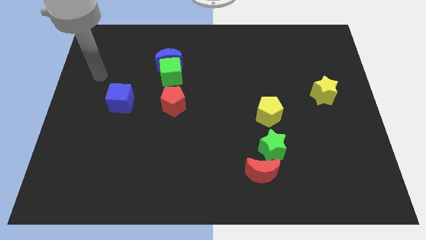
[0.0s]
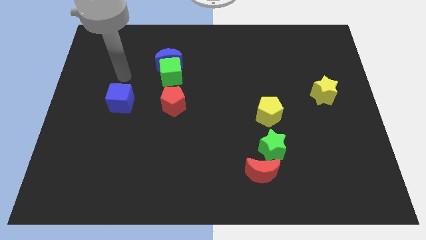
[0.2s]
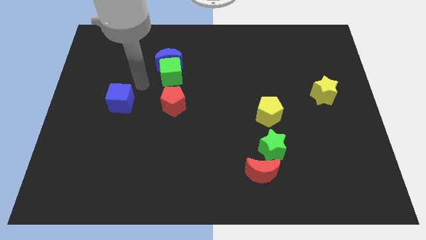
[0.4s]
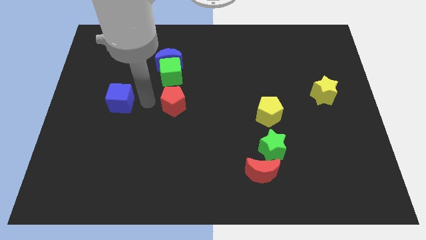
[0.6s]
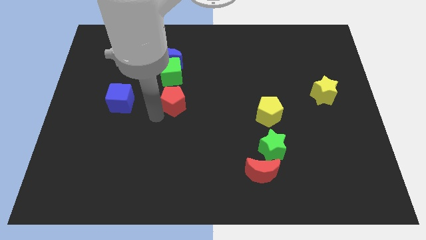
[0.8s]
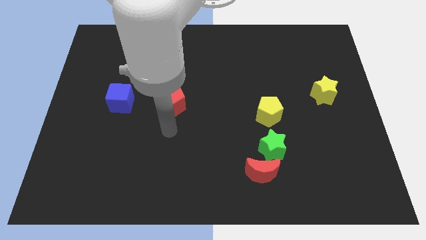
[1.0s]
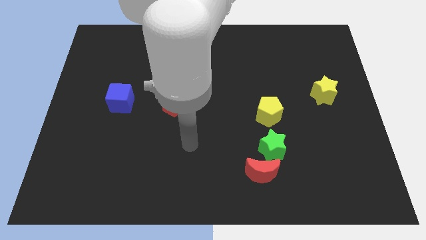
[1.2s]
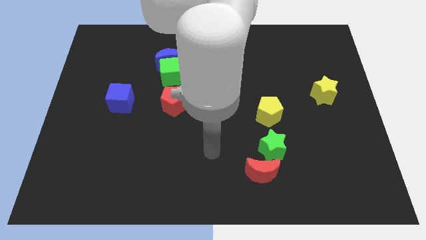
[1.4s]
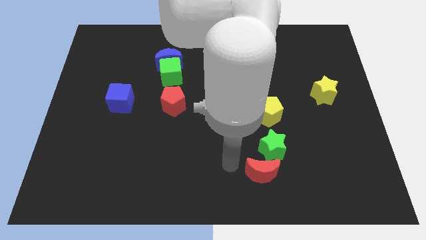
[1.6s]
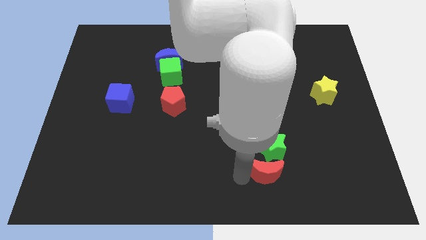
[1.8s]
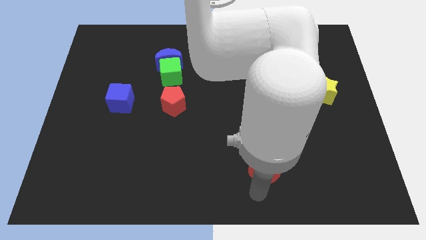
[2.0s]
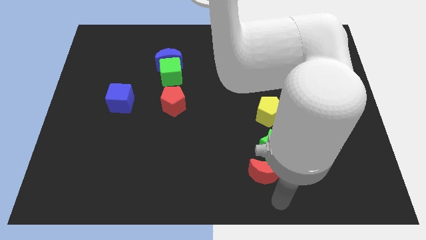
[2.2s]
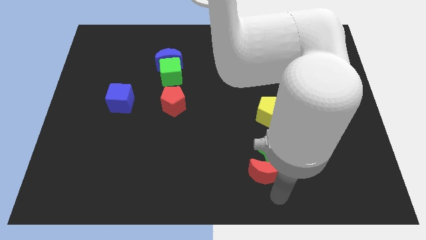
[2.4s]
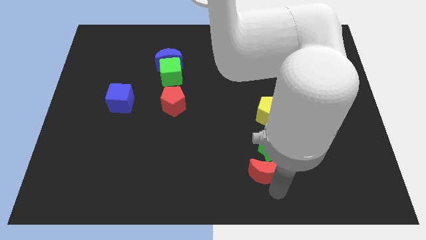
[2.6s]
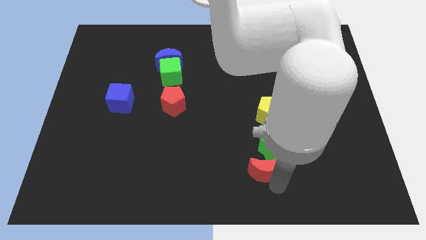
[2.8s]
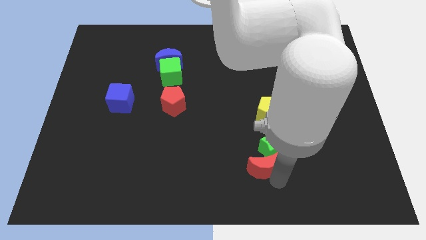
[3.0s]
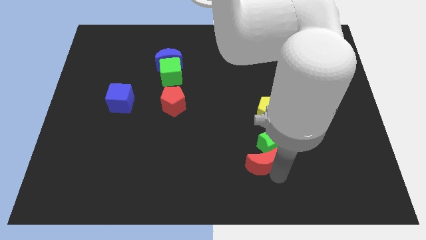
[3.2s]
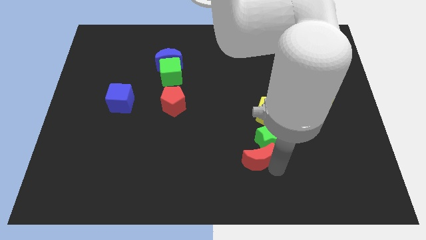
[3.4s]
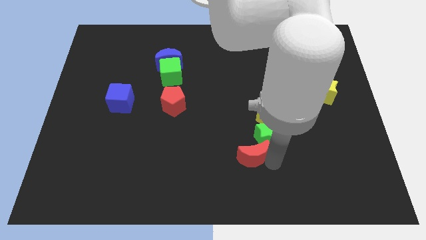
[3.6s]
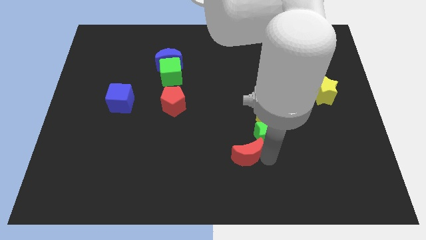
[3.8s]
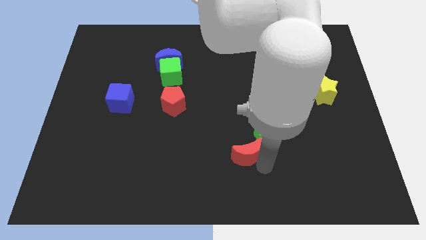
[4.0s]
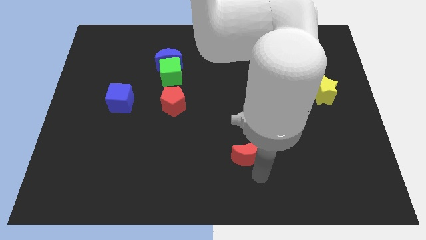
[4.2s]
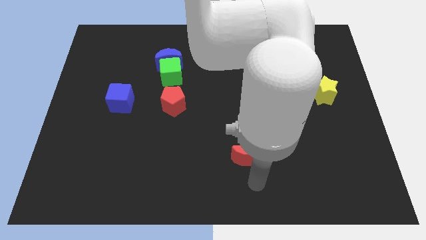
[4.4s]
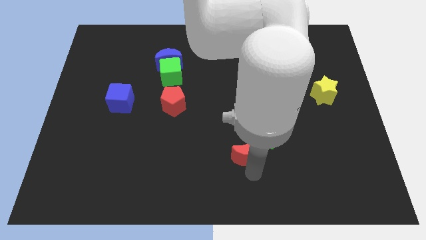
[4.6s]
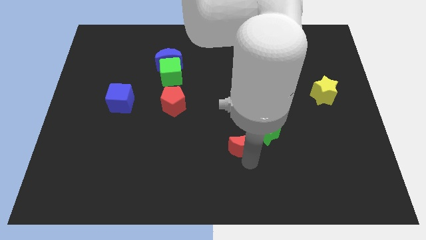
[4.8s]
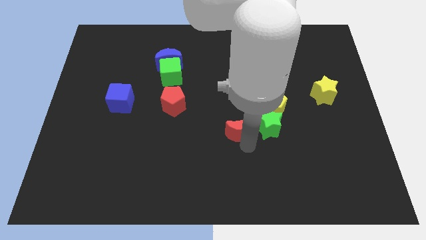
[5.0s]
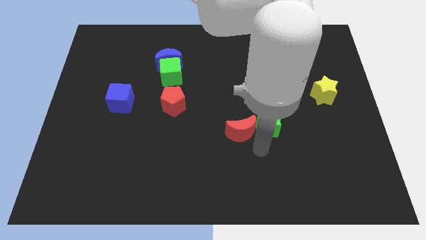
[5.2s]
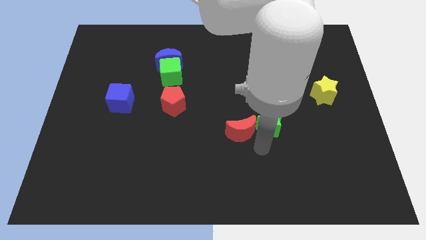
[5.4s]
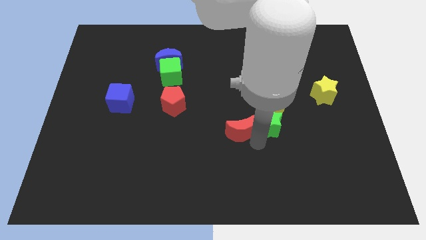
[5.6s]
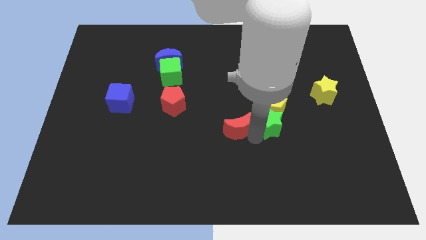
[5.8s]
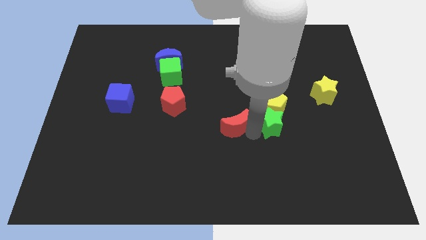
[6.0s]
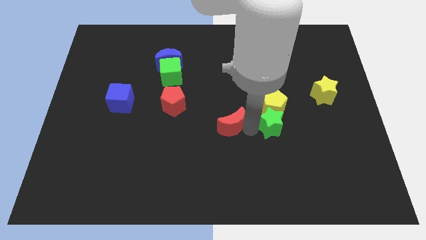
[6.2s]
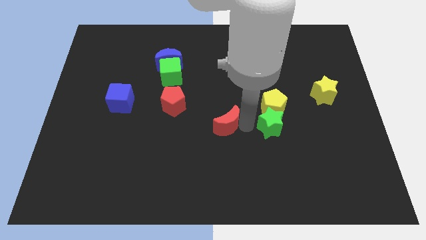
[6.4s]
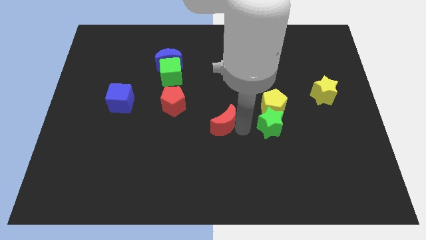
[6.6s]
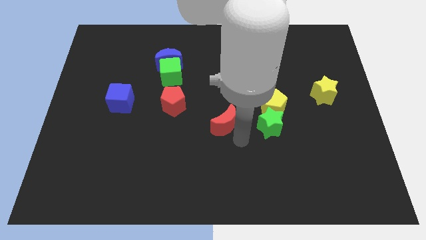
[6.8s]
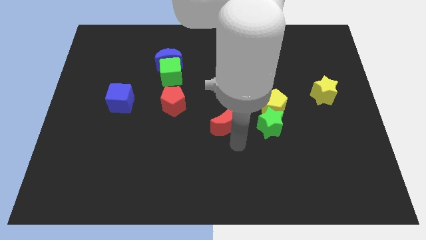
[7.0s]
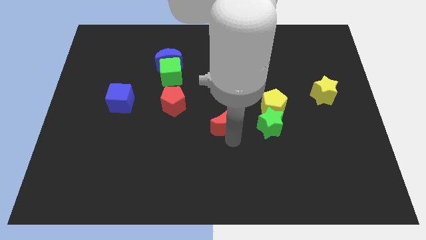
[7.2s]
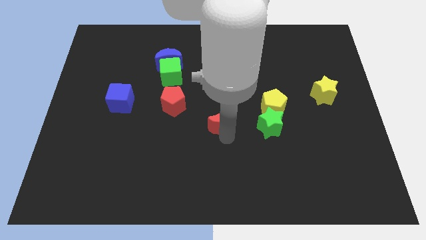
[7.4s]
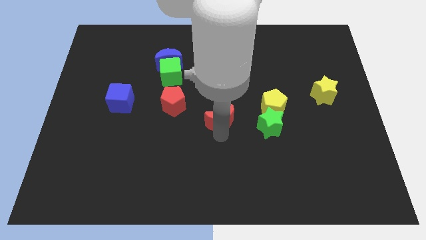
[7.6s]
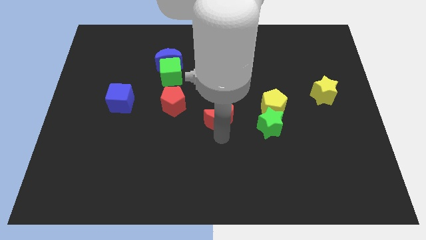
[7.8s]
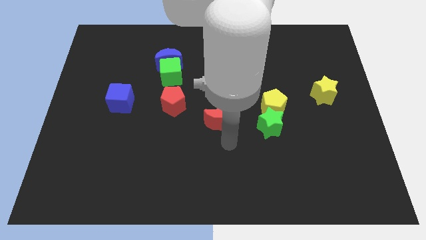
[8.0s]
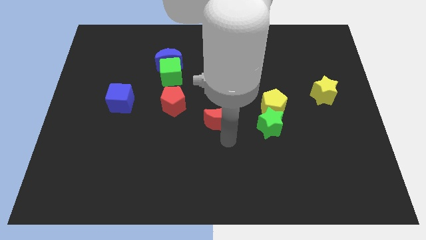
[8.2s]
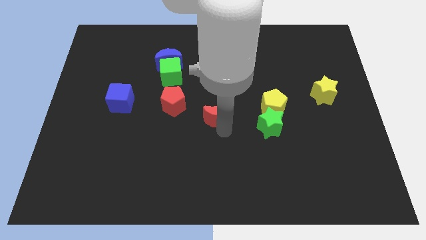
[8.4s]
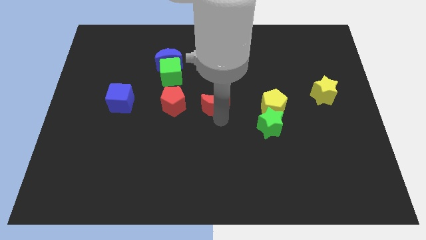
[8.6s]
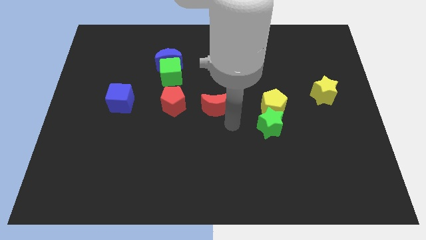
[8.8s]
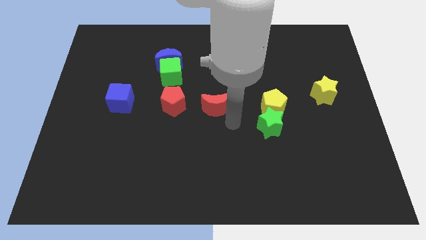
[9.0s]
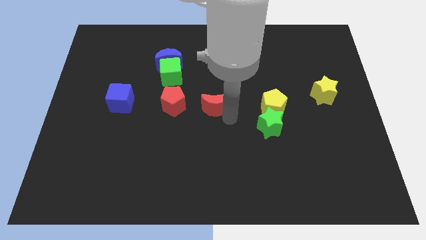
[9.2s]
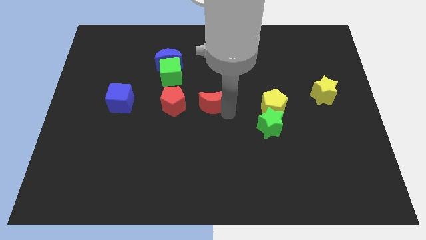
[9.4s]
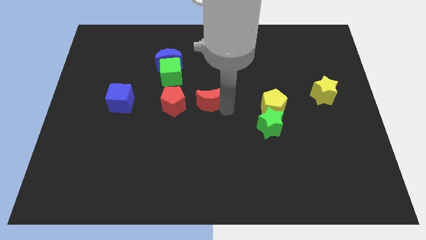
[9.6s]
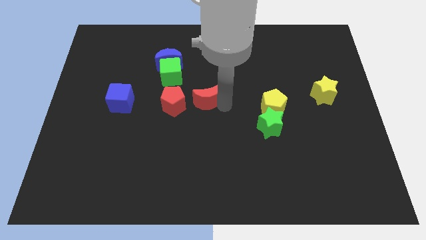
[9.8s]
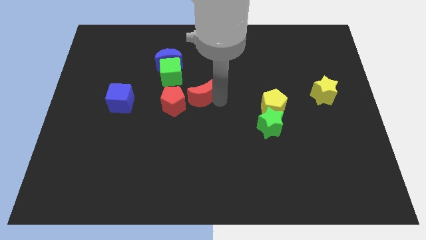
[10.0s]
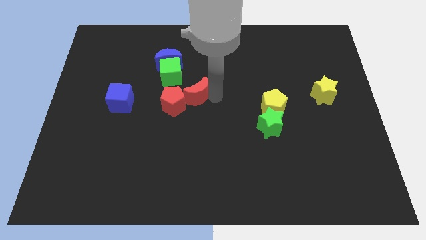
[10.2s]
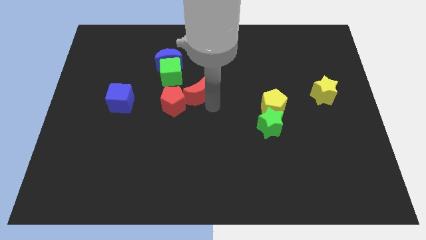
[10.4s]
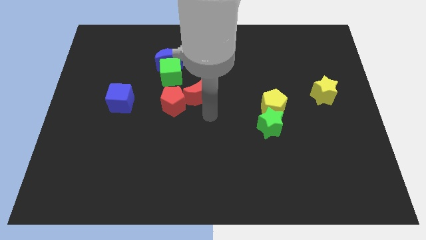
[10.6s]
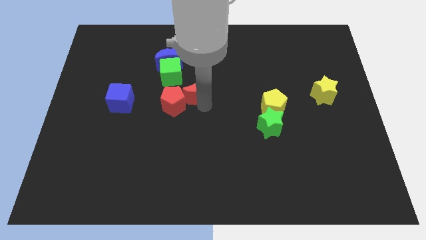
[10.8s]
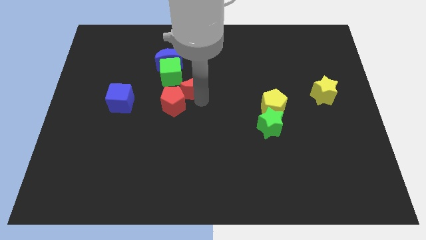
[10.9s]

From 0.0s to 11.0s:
move the red moon diagonally down and to the right of the blue moon

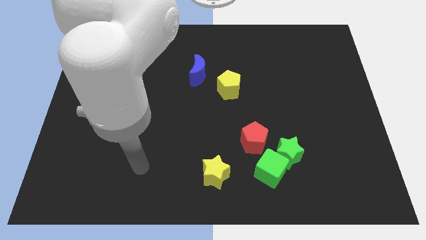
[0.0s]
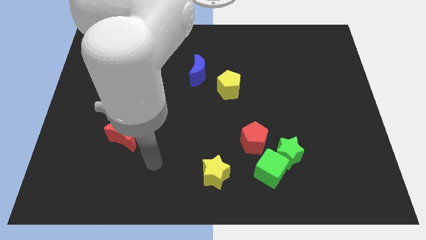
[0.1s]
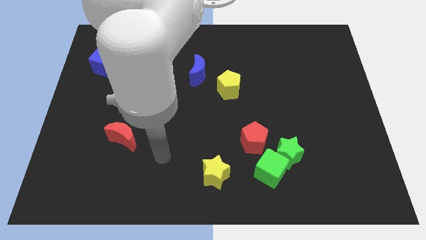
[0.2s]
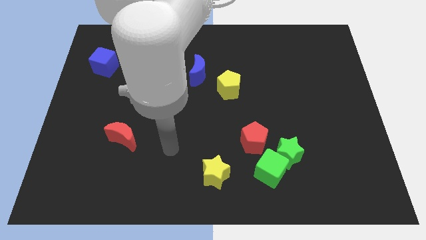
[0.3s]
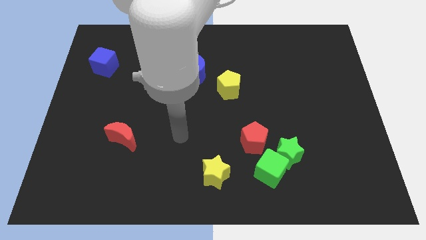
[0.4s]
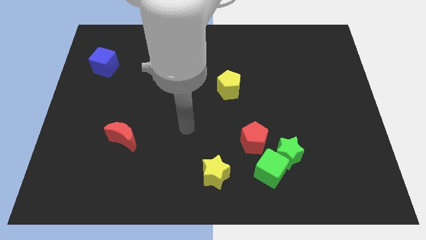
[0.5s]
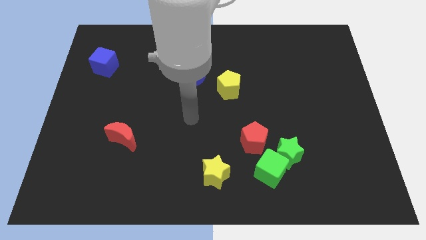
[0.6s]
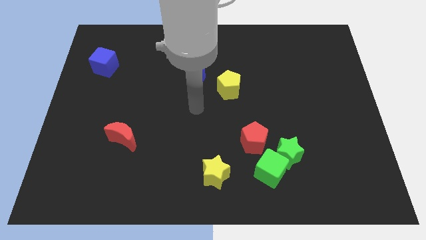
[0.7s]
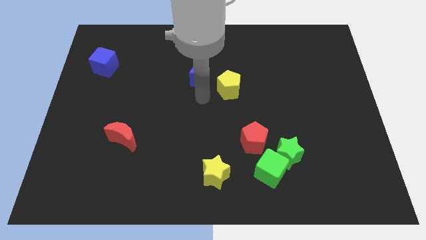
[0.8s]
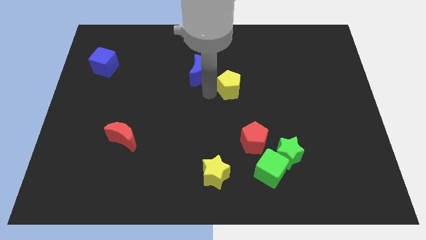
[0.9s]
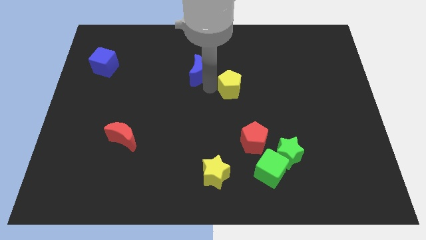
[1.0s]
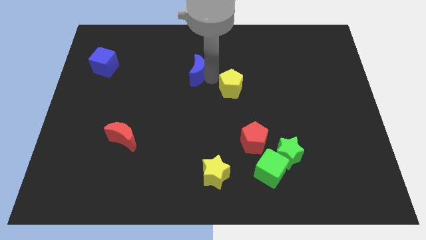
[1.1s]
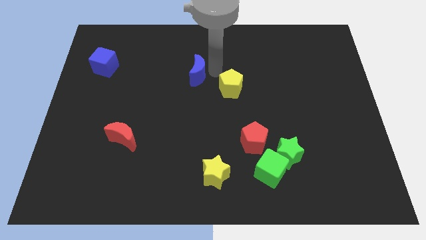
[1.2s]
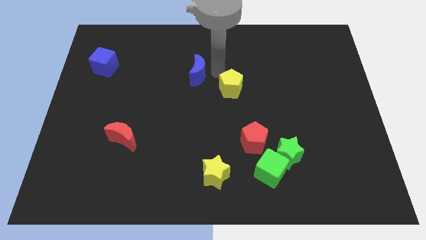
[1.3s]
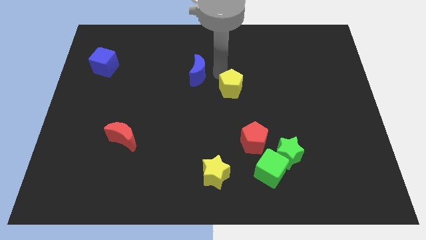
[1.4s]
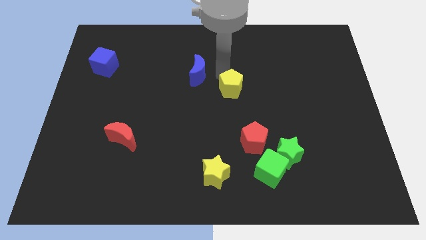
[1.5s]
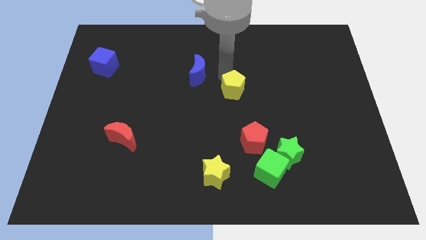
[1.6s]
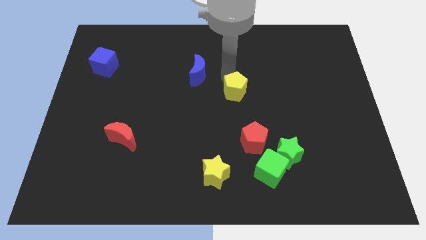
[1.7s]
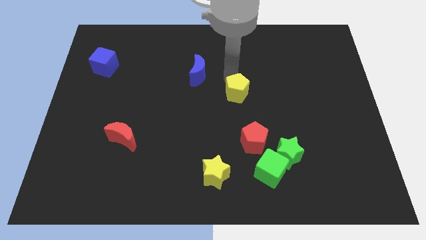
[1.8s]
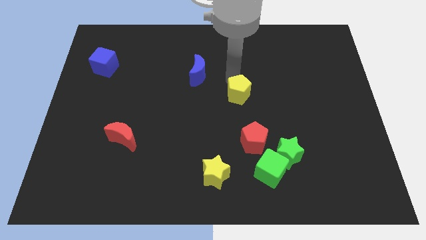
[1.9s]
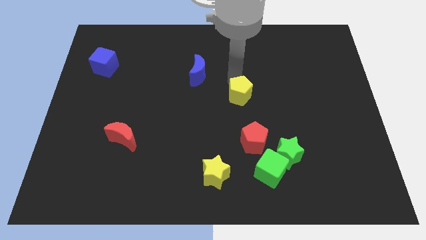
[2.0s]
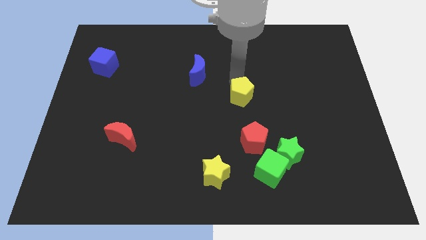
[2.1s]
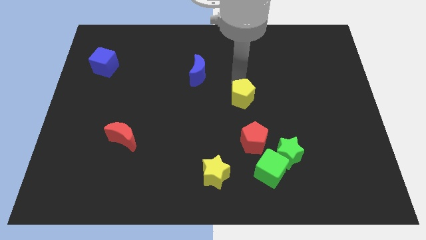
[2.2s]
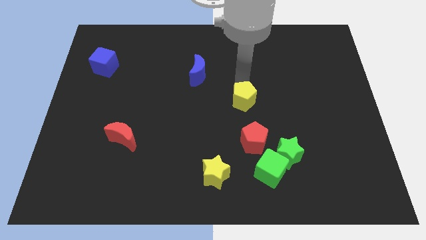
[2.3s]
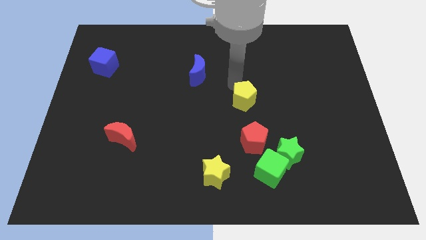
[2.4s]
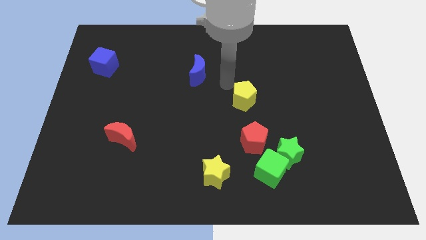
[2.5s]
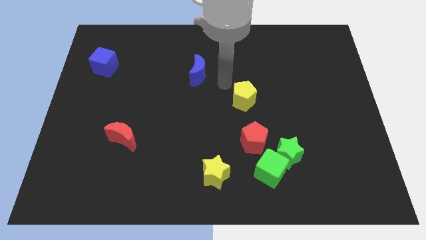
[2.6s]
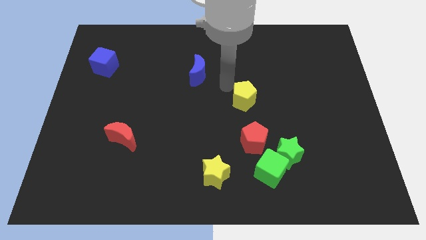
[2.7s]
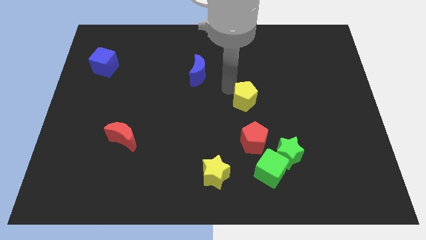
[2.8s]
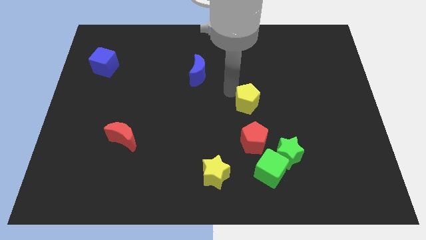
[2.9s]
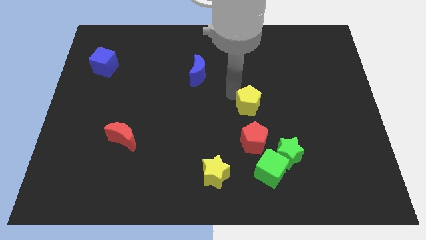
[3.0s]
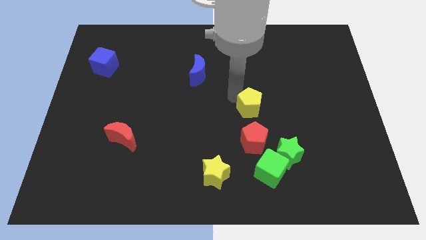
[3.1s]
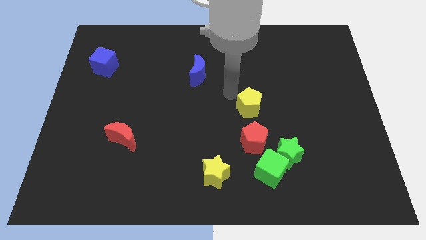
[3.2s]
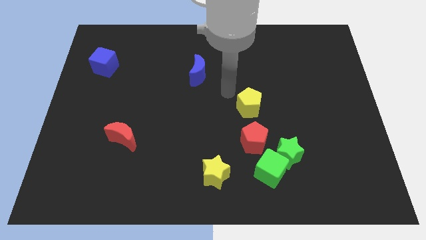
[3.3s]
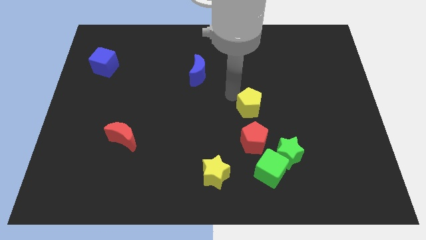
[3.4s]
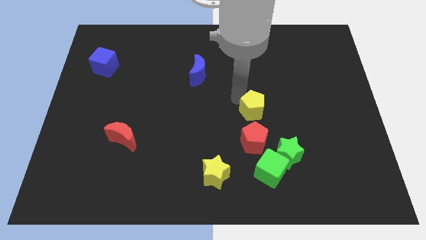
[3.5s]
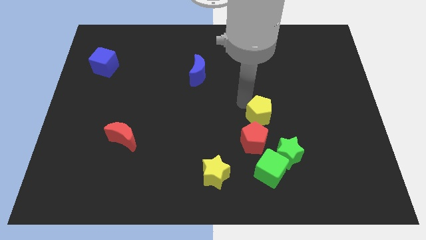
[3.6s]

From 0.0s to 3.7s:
move the yellow pentagon to the top right of the red pentagon
